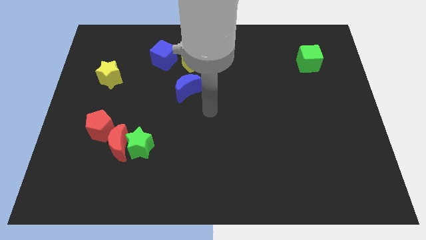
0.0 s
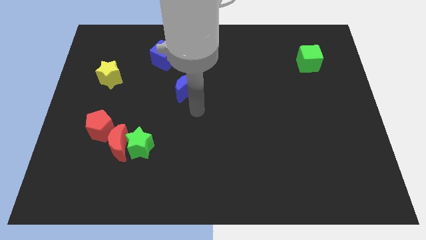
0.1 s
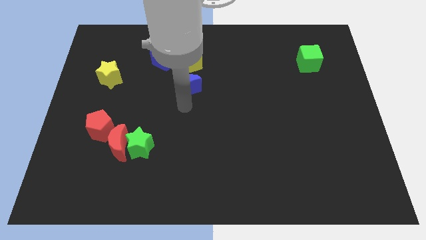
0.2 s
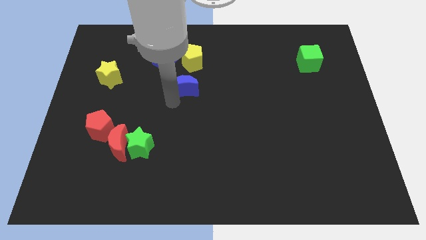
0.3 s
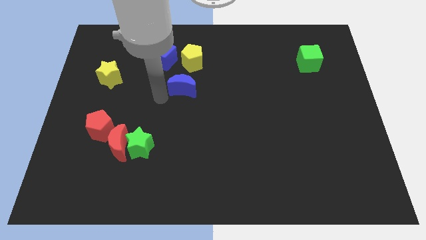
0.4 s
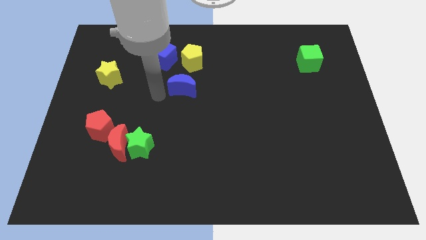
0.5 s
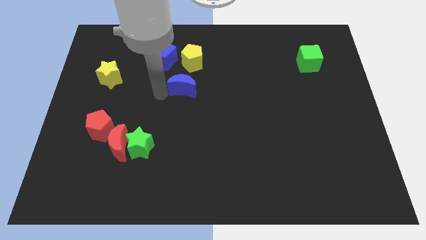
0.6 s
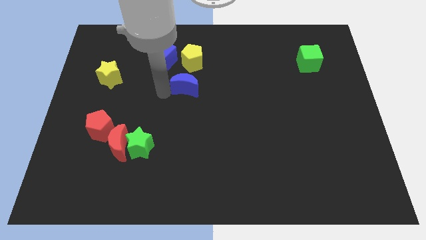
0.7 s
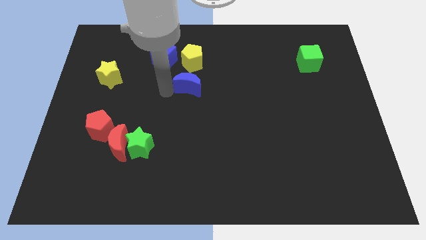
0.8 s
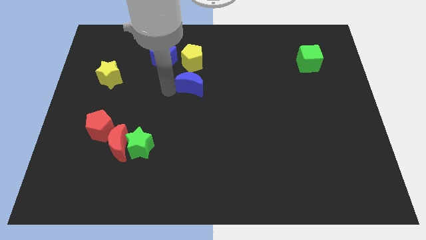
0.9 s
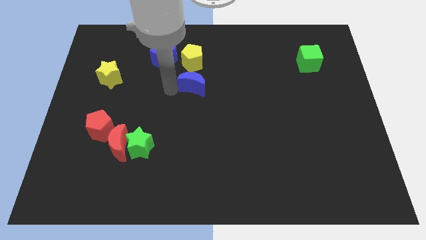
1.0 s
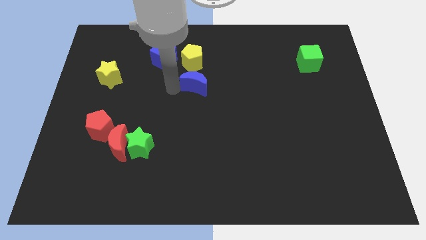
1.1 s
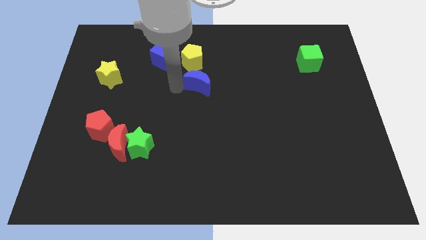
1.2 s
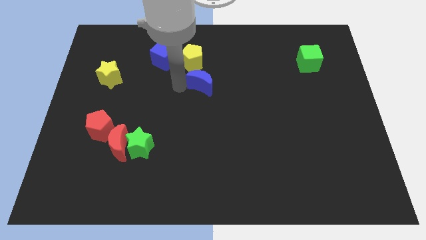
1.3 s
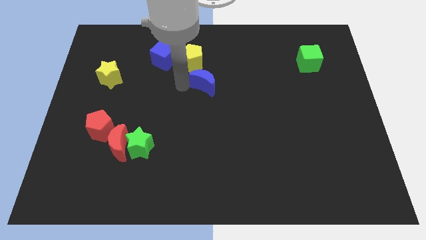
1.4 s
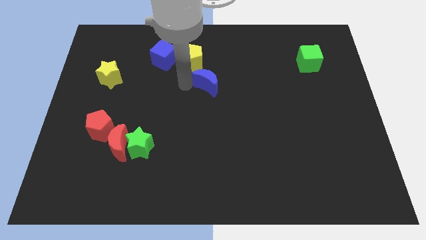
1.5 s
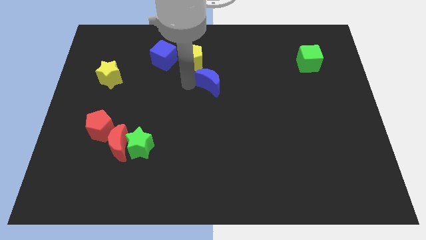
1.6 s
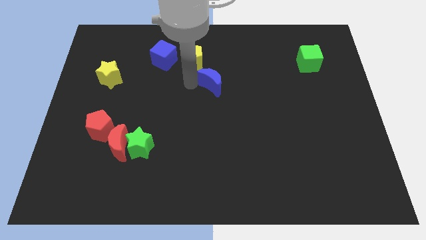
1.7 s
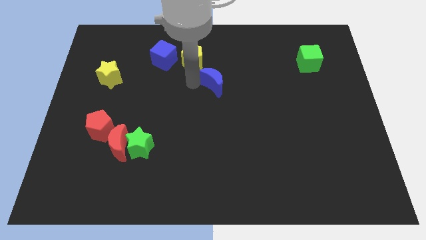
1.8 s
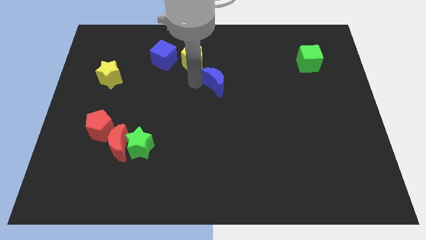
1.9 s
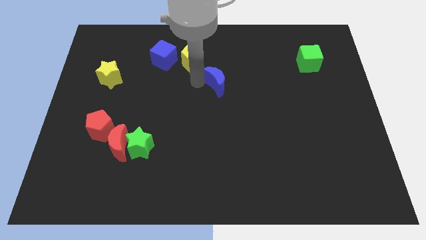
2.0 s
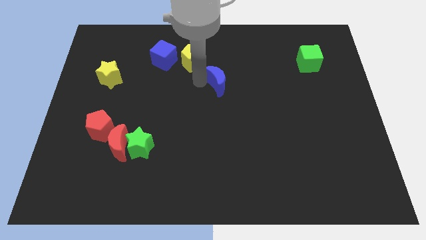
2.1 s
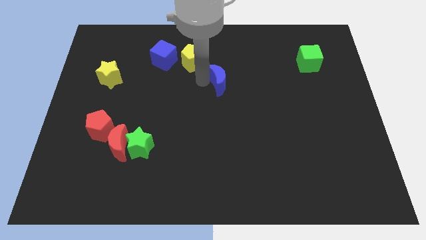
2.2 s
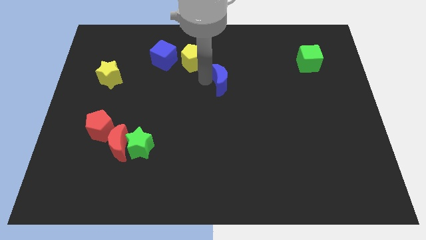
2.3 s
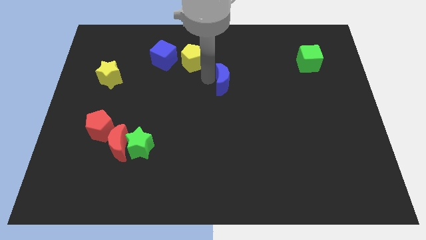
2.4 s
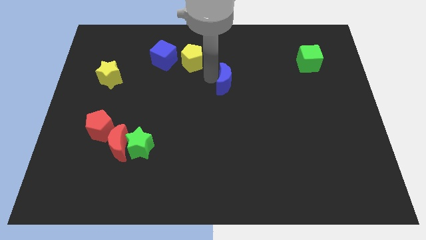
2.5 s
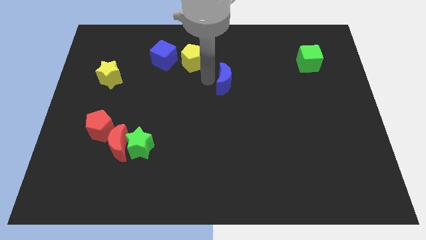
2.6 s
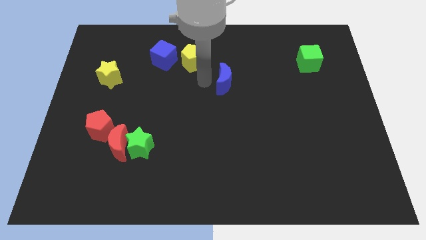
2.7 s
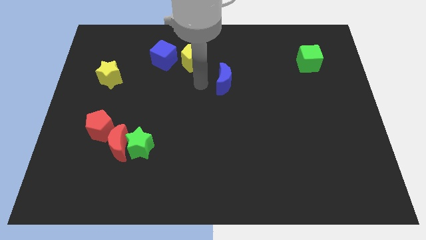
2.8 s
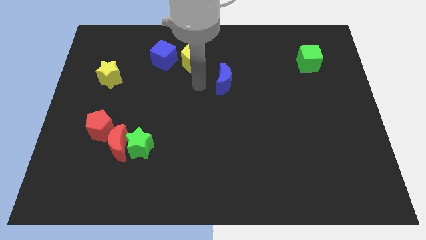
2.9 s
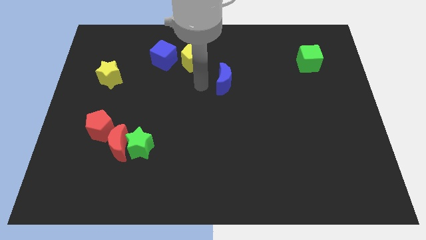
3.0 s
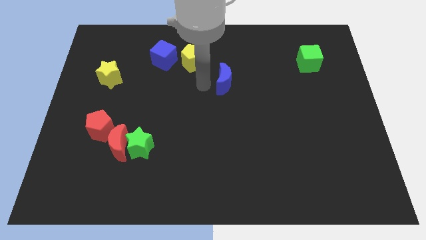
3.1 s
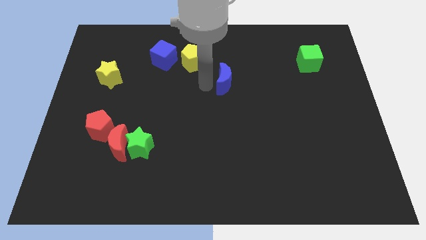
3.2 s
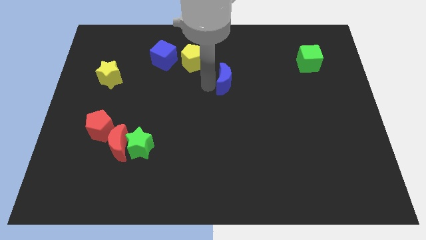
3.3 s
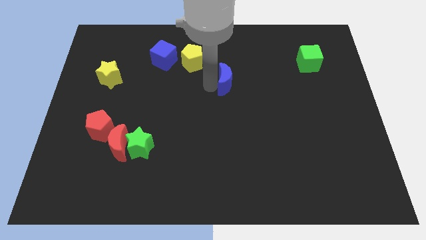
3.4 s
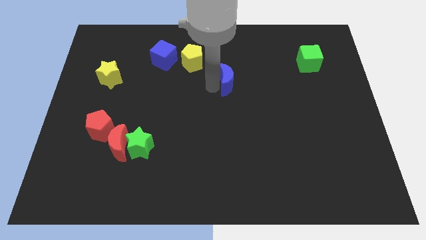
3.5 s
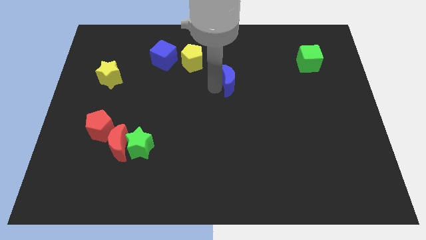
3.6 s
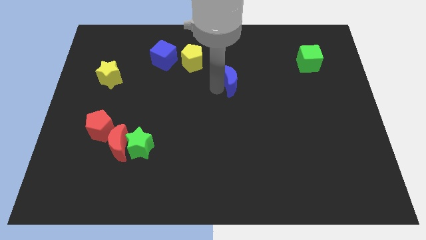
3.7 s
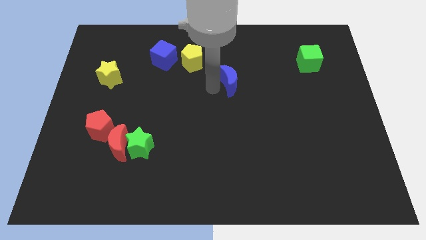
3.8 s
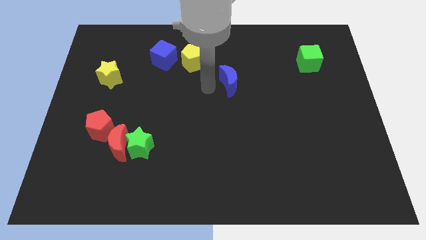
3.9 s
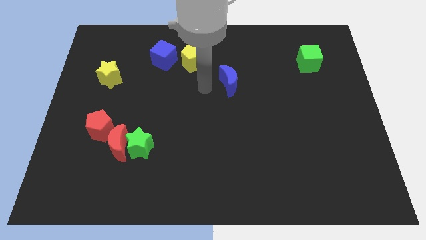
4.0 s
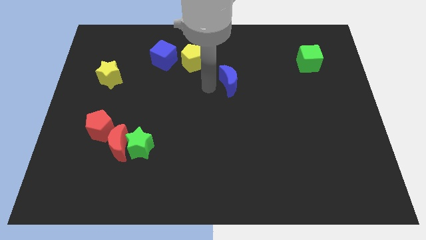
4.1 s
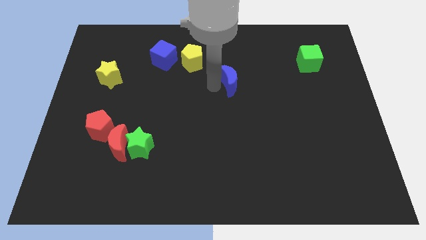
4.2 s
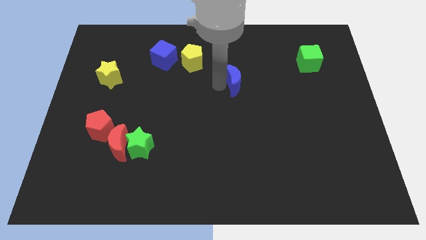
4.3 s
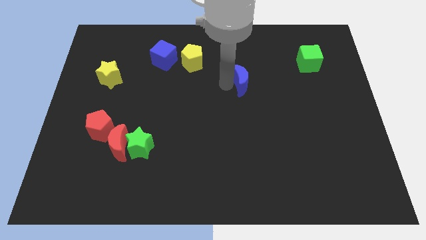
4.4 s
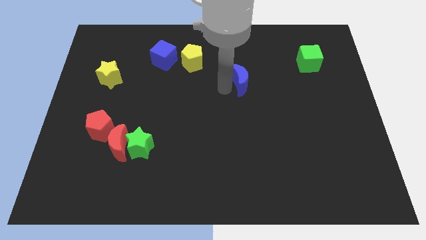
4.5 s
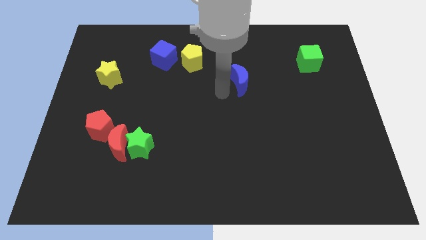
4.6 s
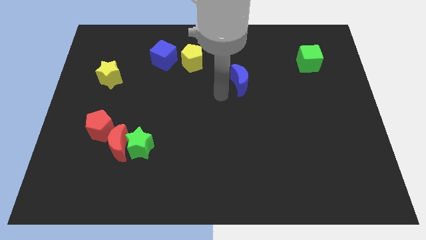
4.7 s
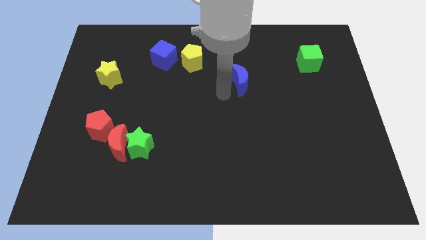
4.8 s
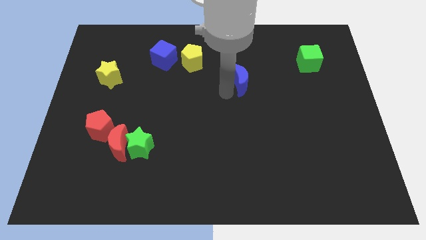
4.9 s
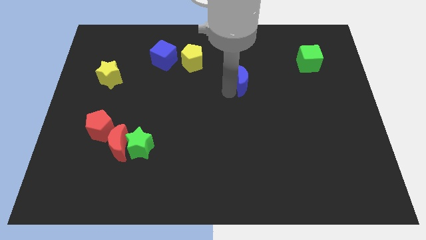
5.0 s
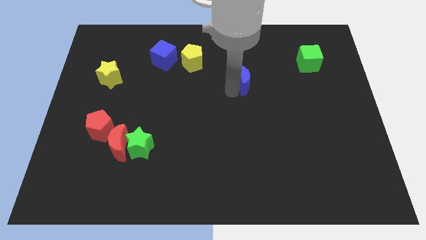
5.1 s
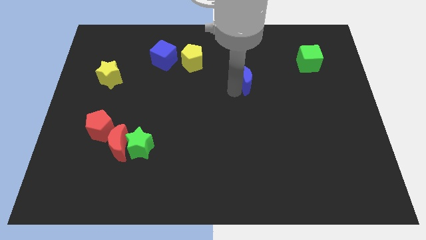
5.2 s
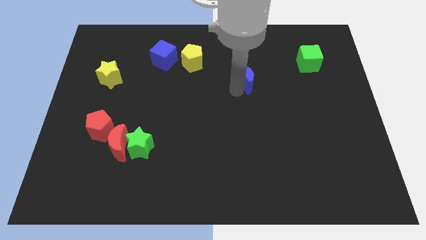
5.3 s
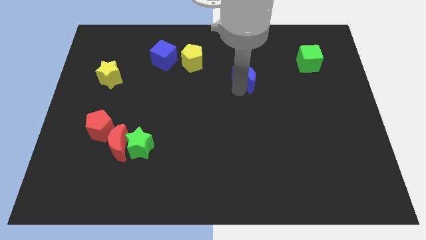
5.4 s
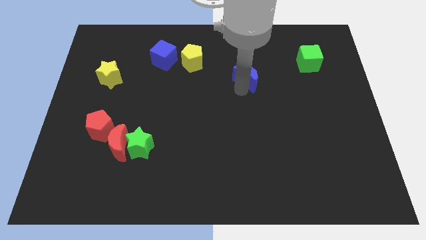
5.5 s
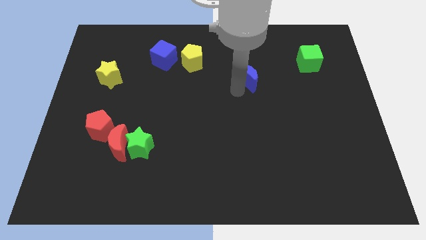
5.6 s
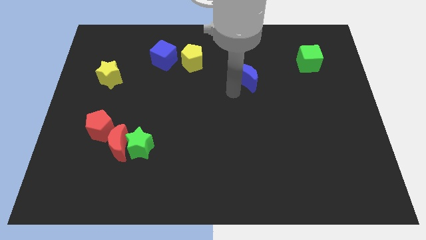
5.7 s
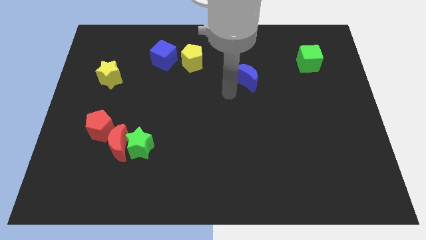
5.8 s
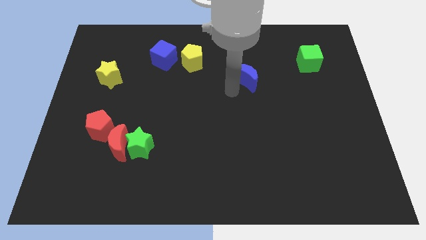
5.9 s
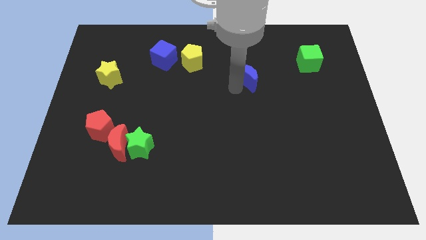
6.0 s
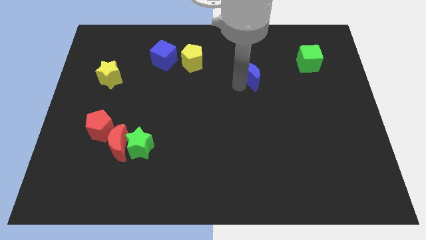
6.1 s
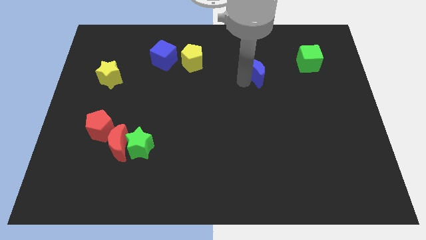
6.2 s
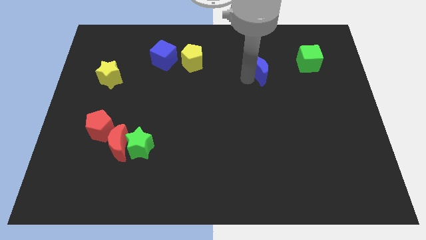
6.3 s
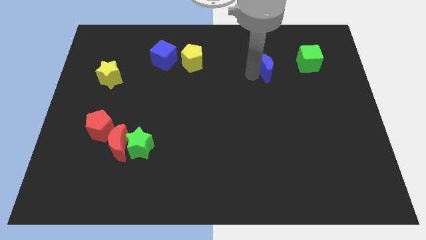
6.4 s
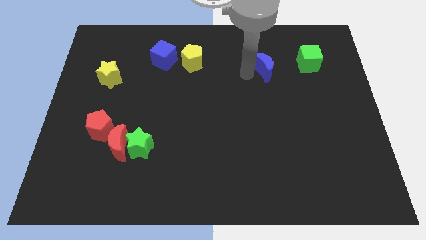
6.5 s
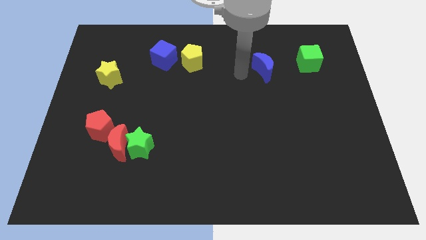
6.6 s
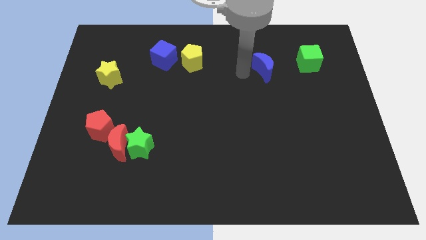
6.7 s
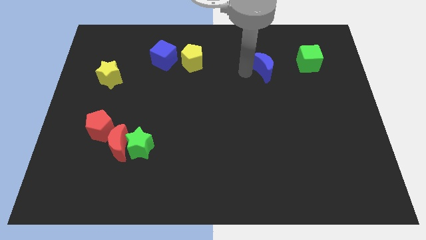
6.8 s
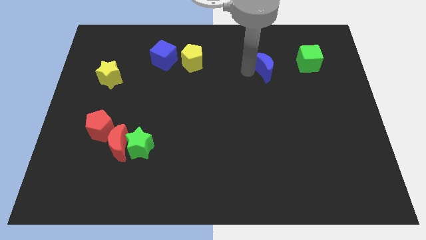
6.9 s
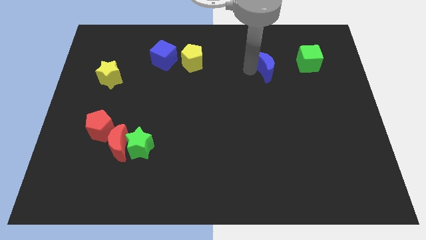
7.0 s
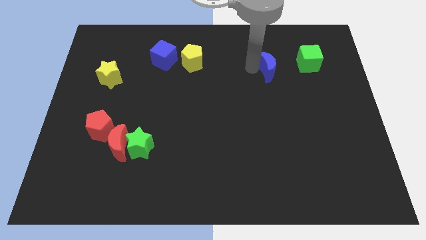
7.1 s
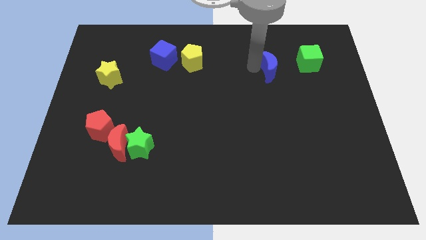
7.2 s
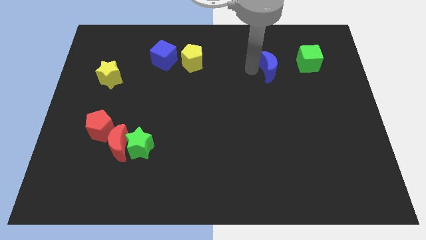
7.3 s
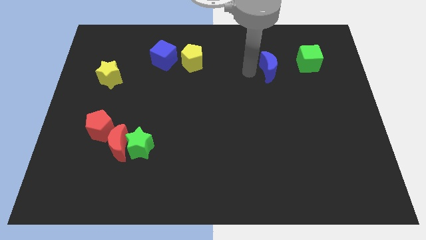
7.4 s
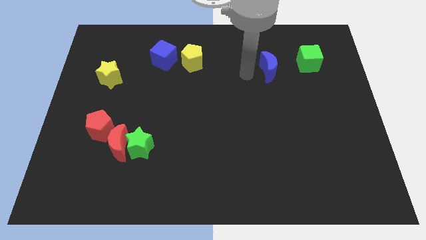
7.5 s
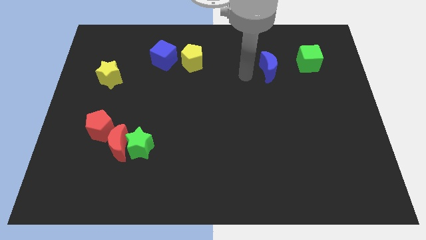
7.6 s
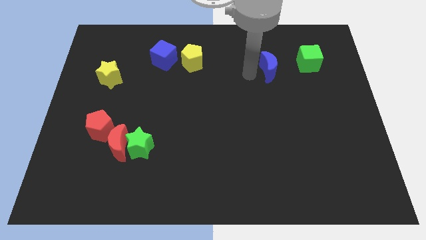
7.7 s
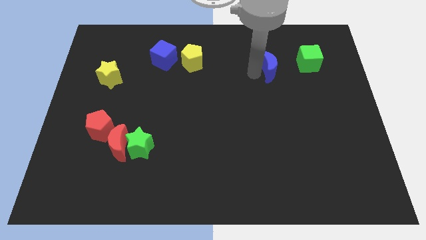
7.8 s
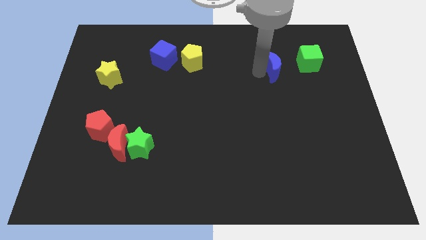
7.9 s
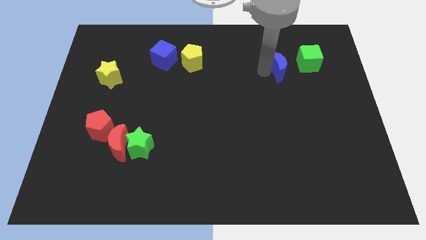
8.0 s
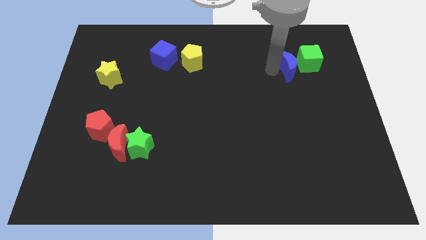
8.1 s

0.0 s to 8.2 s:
put the blue moon close to the green cube
